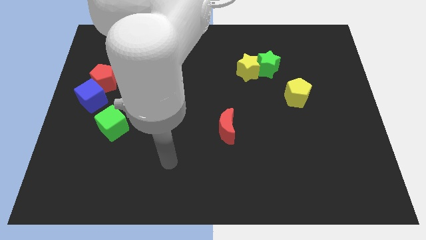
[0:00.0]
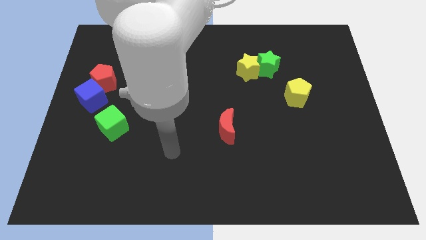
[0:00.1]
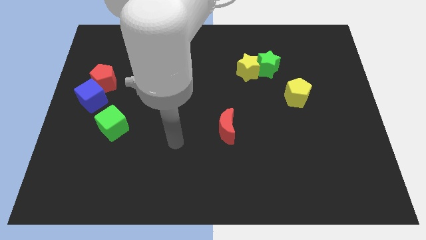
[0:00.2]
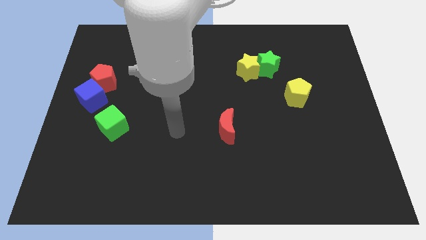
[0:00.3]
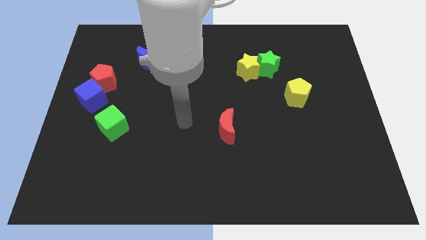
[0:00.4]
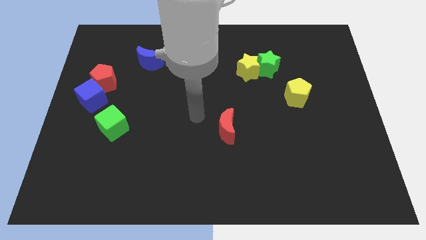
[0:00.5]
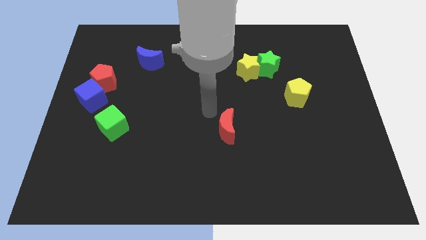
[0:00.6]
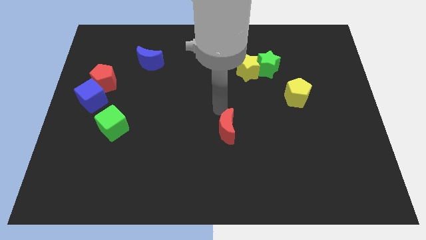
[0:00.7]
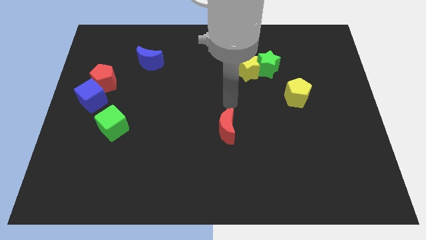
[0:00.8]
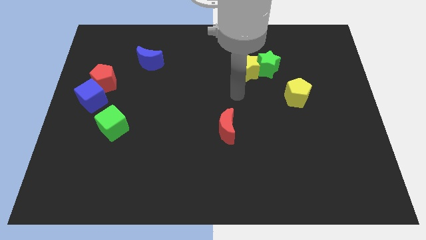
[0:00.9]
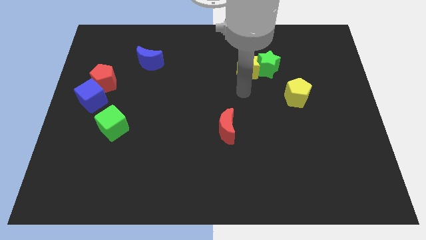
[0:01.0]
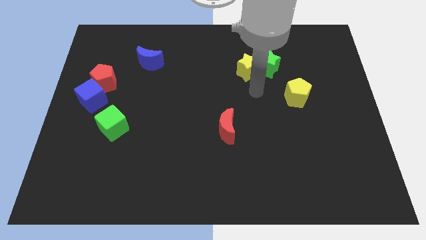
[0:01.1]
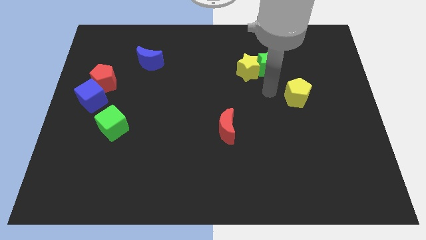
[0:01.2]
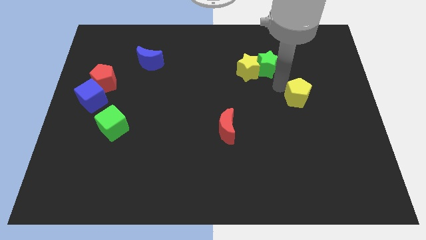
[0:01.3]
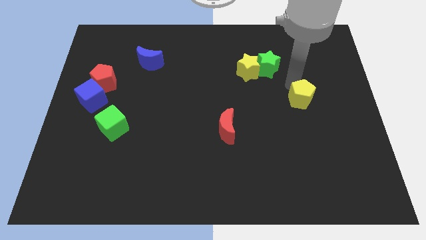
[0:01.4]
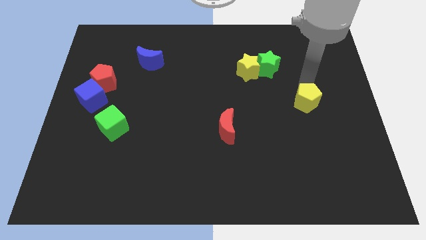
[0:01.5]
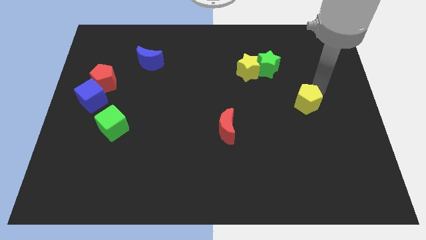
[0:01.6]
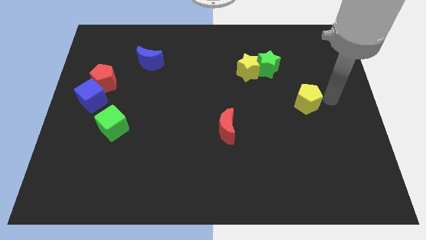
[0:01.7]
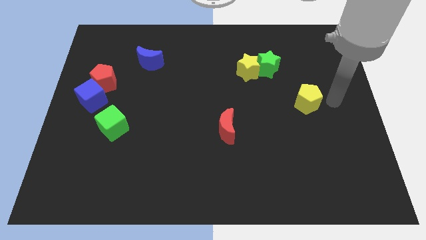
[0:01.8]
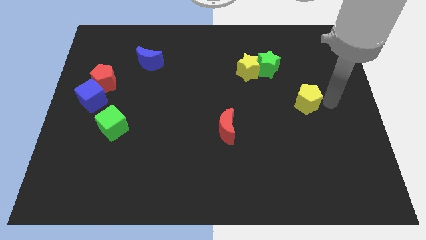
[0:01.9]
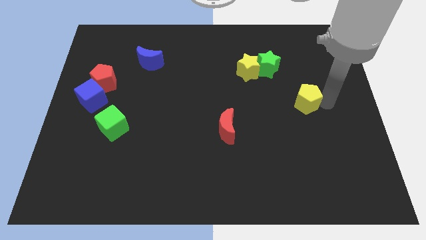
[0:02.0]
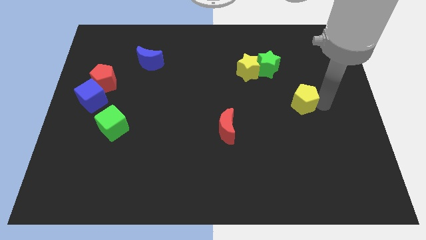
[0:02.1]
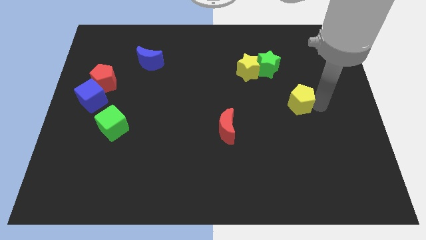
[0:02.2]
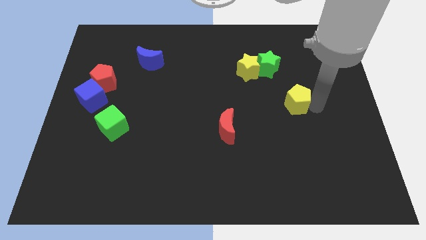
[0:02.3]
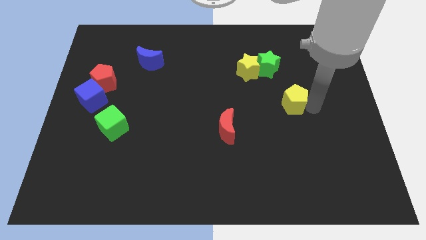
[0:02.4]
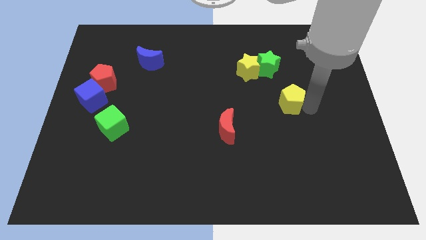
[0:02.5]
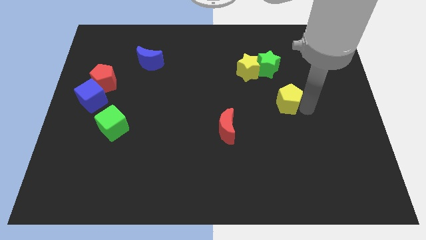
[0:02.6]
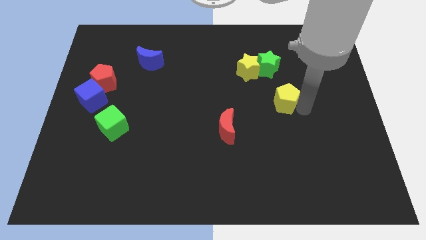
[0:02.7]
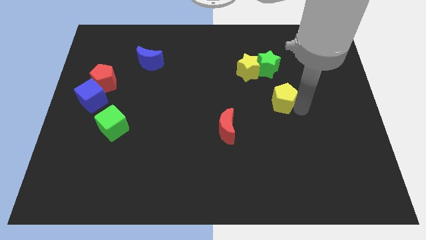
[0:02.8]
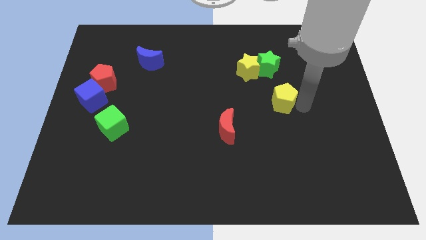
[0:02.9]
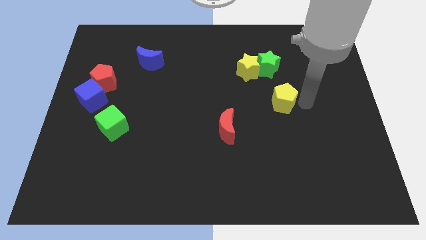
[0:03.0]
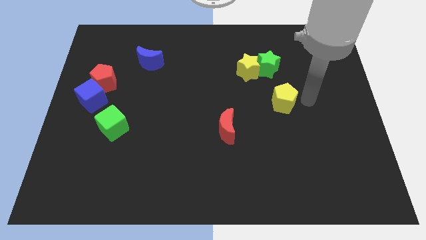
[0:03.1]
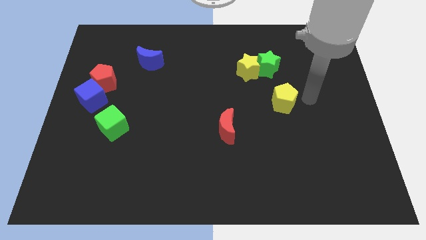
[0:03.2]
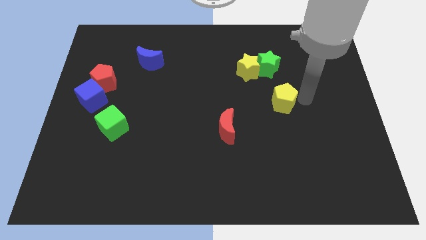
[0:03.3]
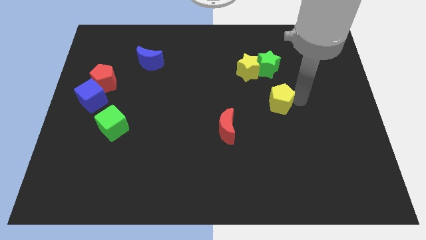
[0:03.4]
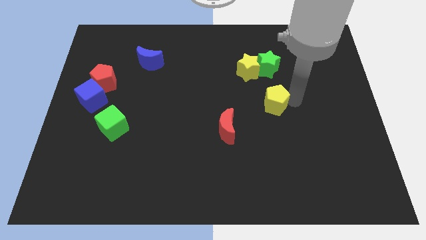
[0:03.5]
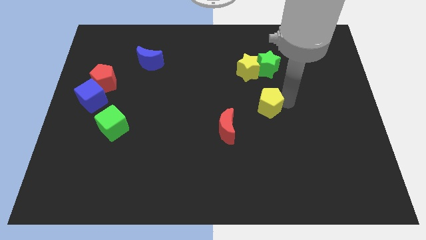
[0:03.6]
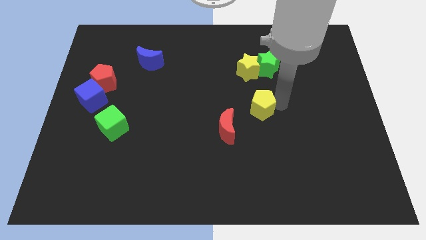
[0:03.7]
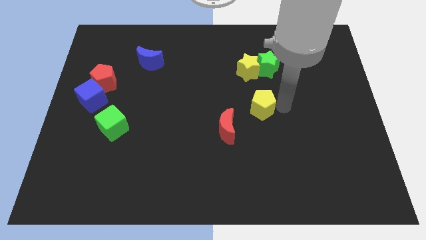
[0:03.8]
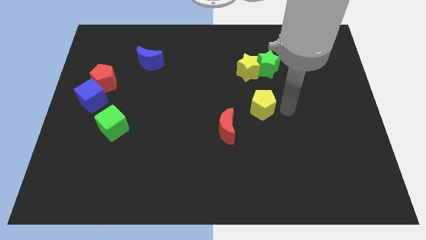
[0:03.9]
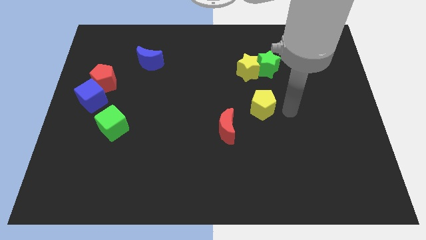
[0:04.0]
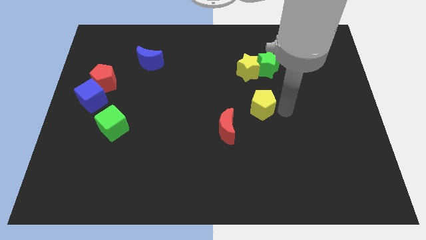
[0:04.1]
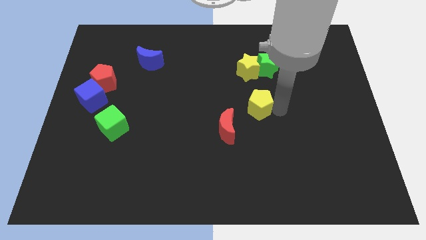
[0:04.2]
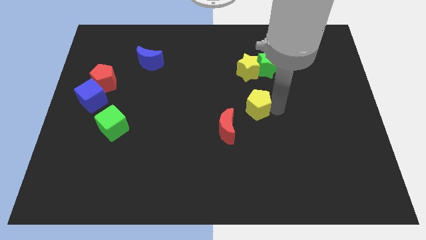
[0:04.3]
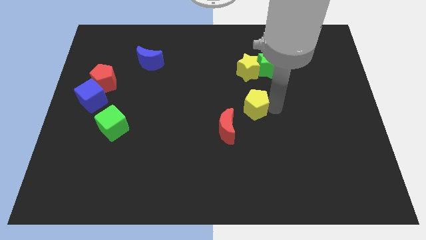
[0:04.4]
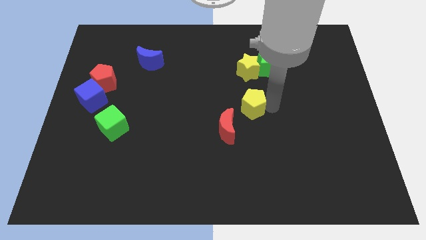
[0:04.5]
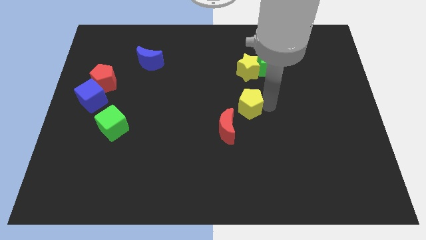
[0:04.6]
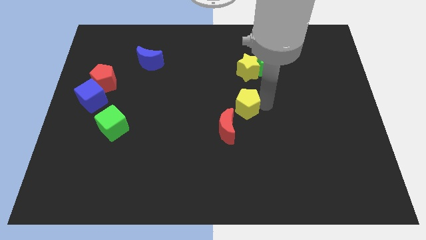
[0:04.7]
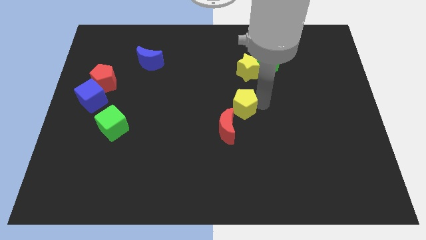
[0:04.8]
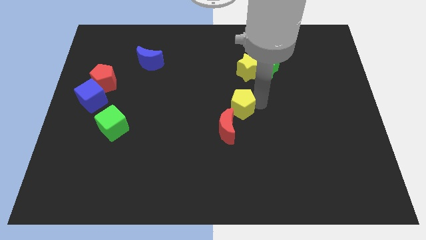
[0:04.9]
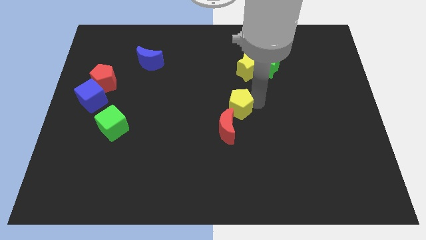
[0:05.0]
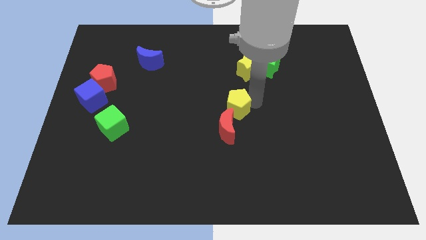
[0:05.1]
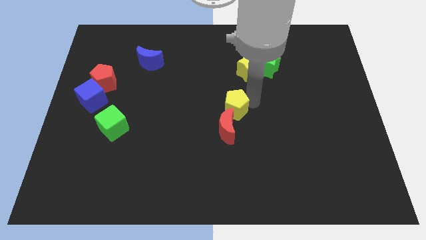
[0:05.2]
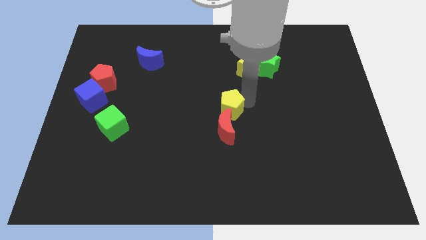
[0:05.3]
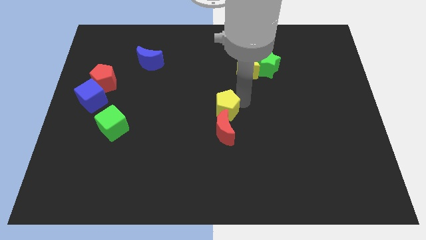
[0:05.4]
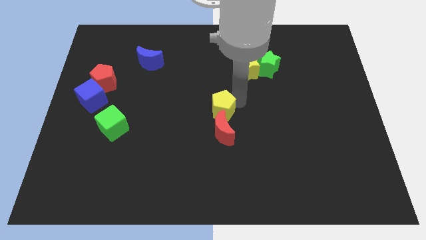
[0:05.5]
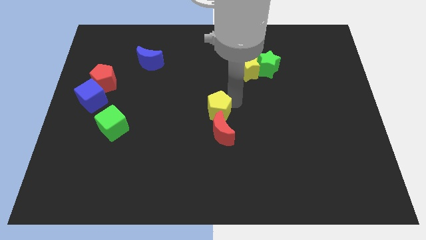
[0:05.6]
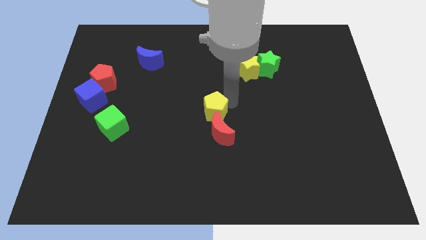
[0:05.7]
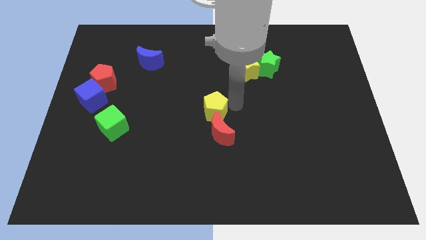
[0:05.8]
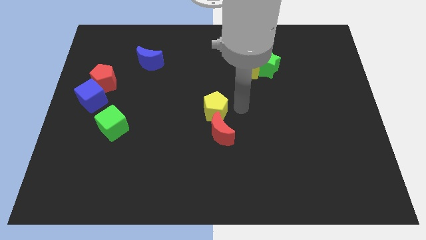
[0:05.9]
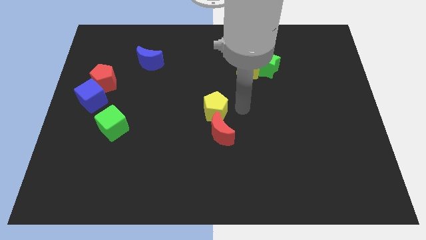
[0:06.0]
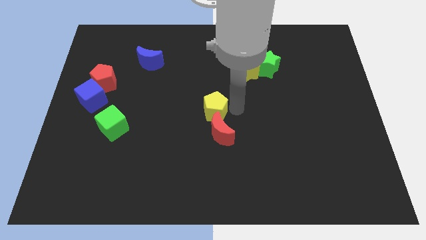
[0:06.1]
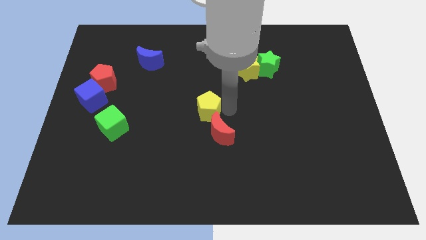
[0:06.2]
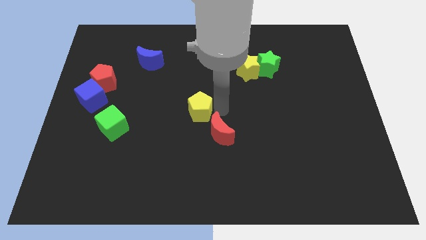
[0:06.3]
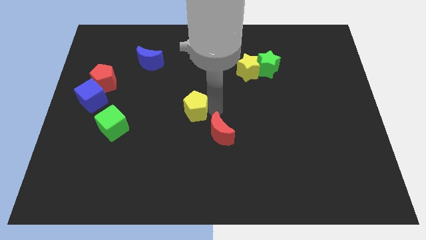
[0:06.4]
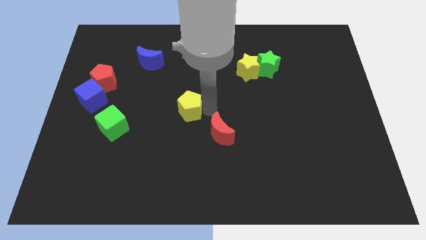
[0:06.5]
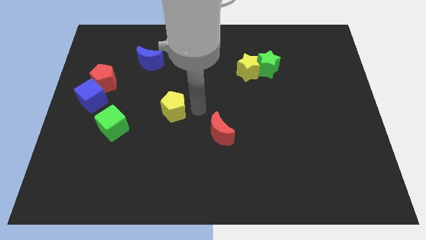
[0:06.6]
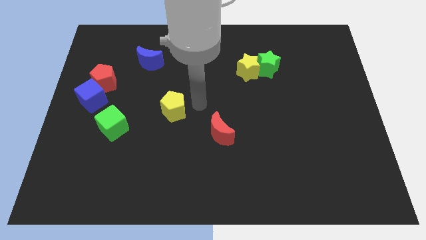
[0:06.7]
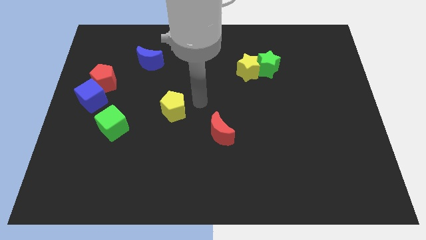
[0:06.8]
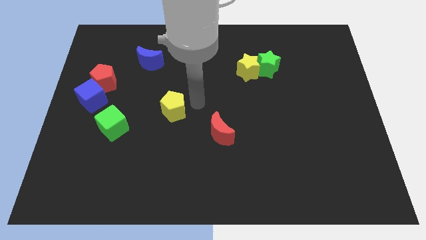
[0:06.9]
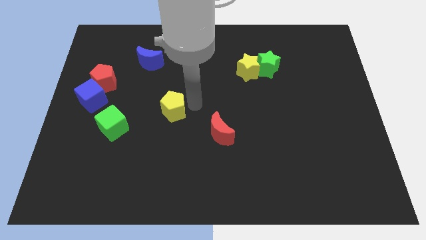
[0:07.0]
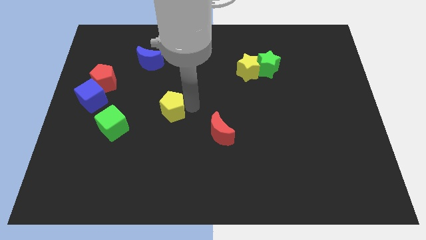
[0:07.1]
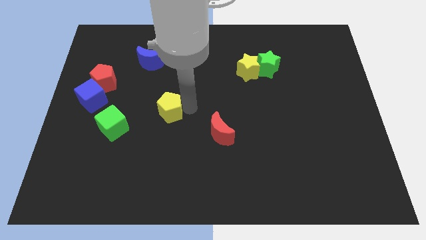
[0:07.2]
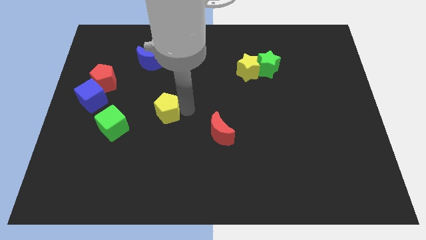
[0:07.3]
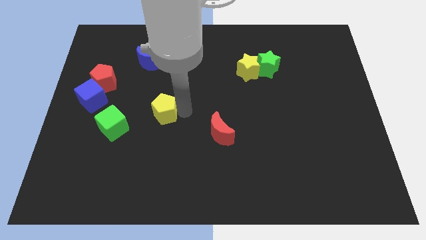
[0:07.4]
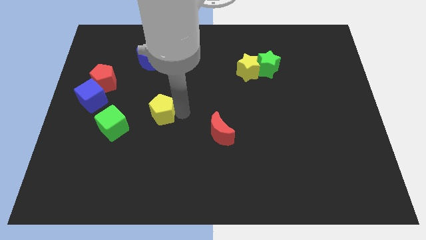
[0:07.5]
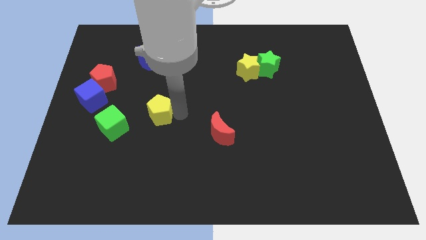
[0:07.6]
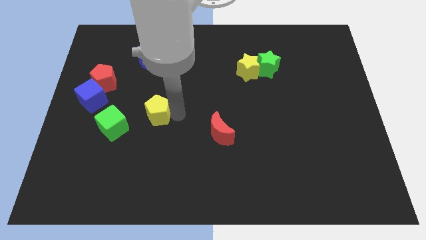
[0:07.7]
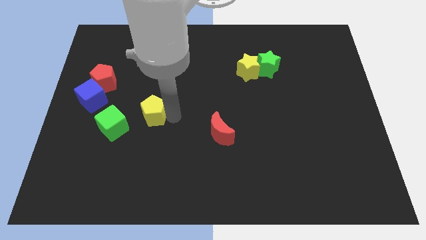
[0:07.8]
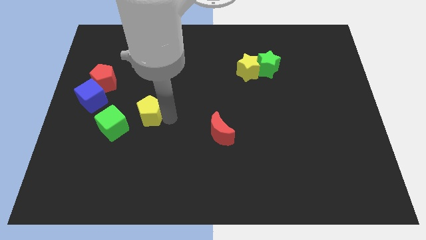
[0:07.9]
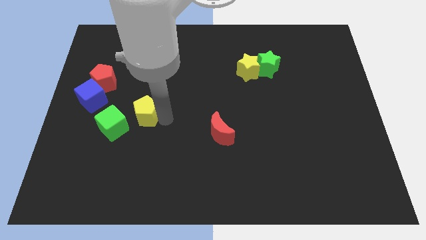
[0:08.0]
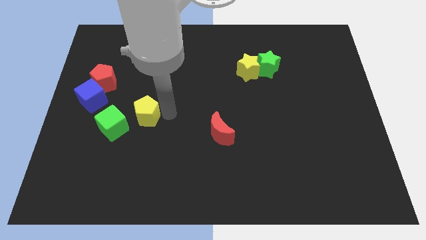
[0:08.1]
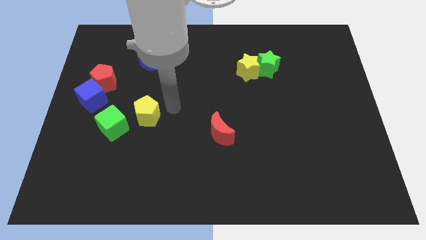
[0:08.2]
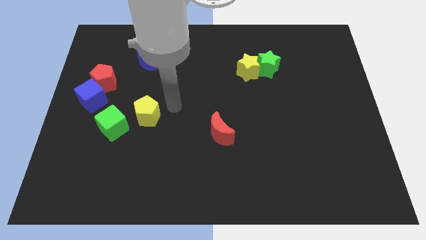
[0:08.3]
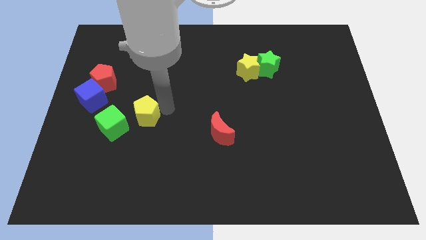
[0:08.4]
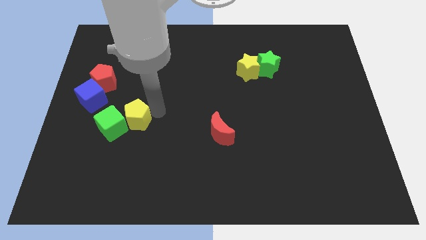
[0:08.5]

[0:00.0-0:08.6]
push the yellow pentagon towards the green cube

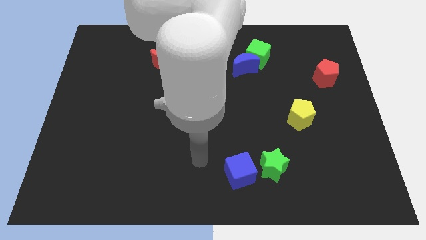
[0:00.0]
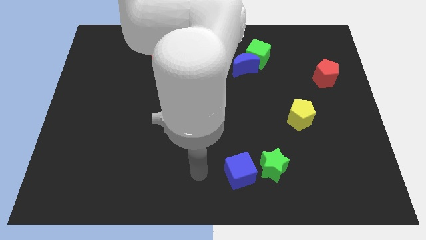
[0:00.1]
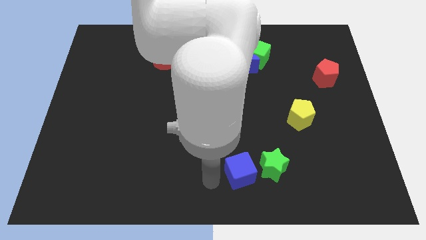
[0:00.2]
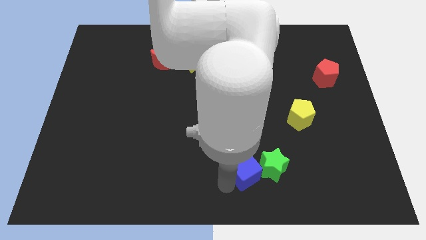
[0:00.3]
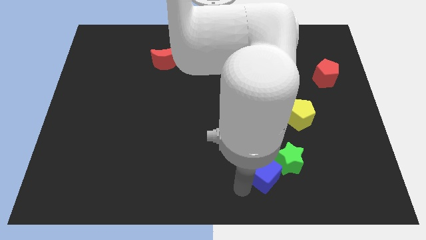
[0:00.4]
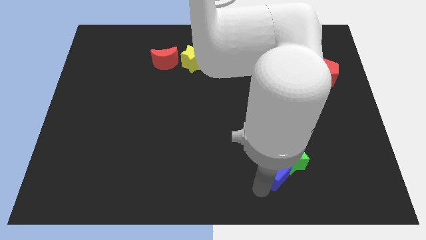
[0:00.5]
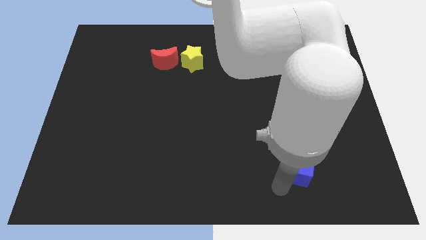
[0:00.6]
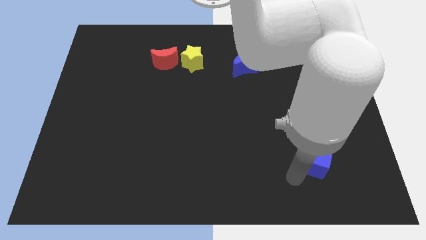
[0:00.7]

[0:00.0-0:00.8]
slide the green star close to the yellow pentagon
